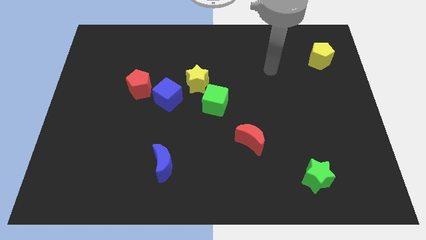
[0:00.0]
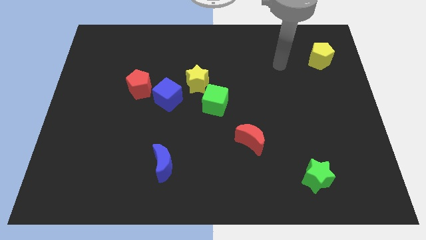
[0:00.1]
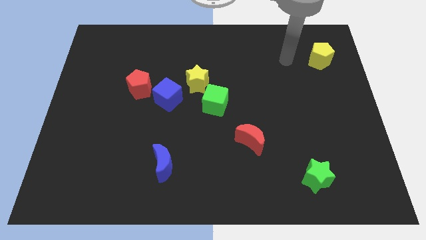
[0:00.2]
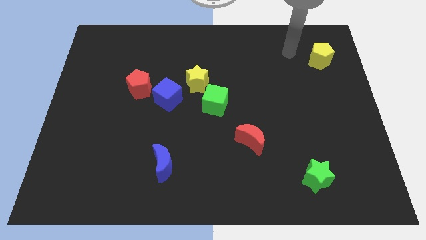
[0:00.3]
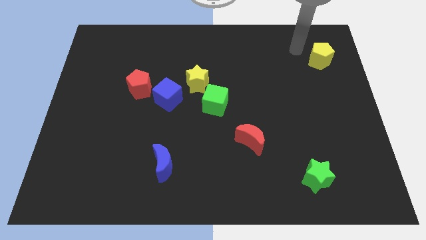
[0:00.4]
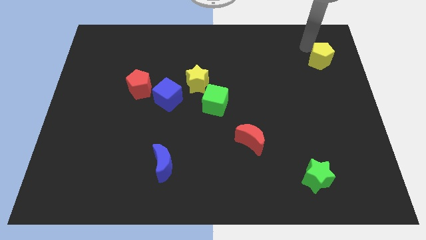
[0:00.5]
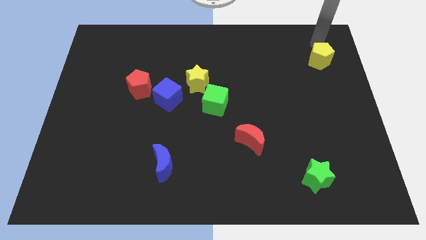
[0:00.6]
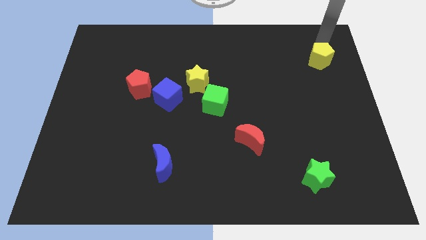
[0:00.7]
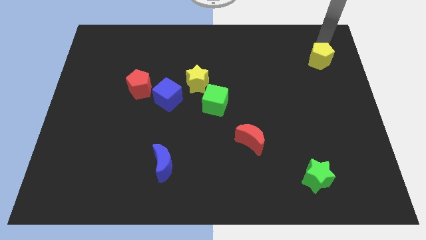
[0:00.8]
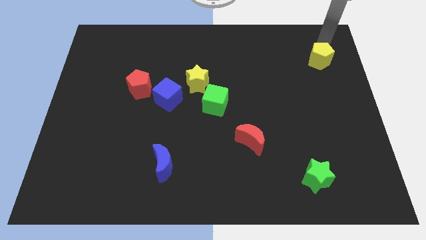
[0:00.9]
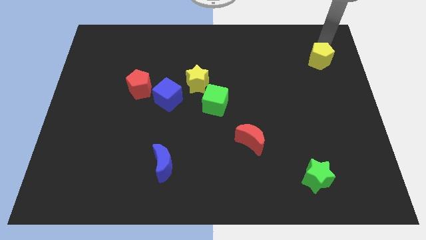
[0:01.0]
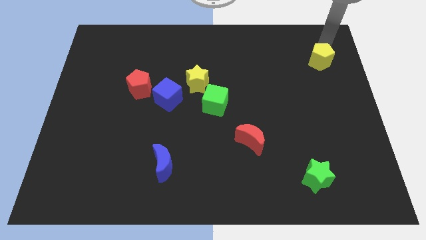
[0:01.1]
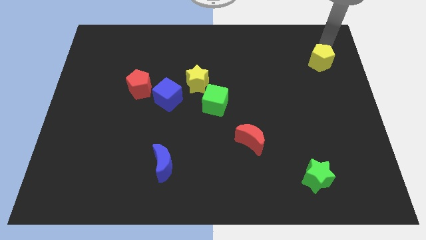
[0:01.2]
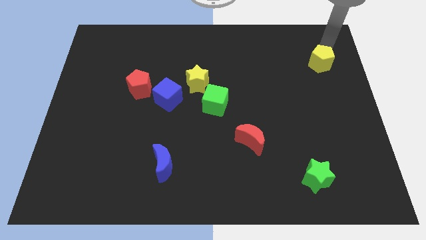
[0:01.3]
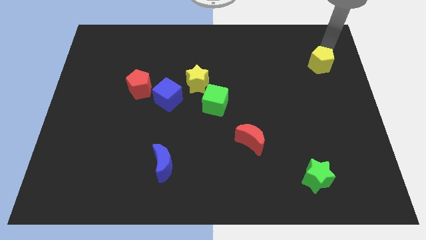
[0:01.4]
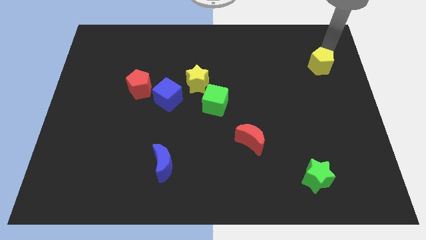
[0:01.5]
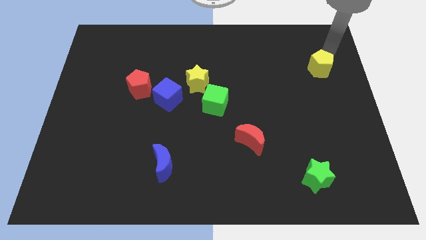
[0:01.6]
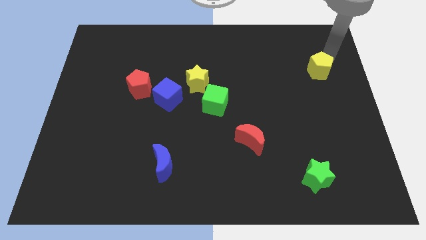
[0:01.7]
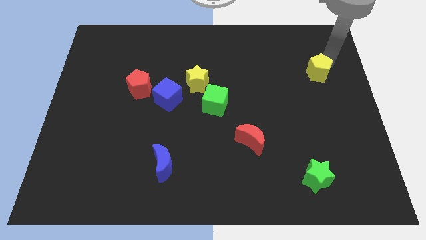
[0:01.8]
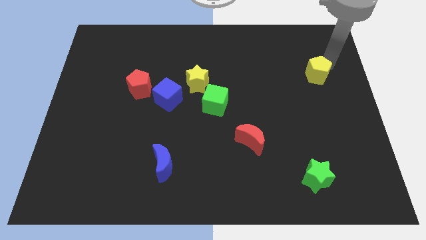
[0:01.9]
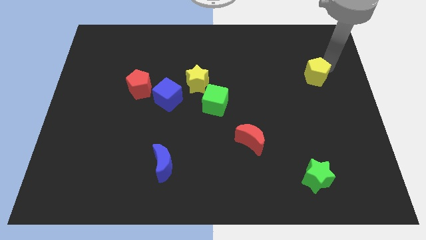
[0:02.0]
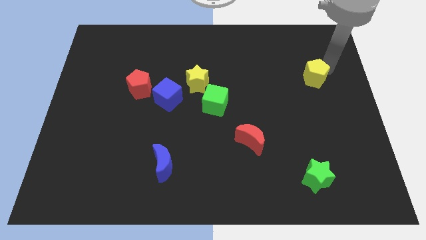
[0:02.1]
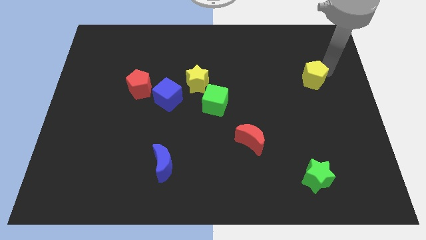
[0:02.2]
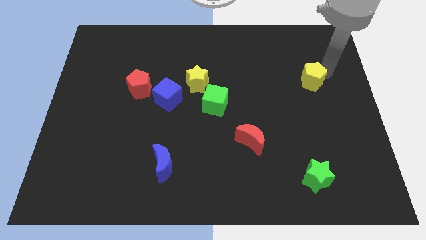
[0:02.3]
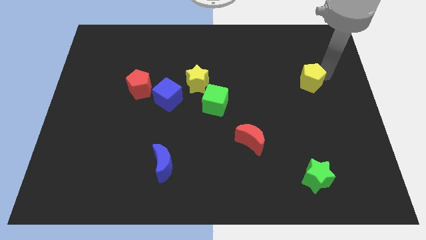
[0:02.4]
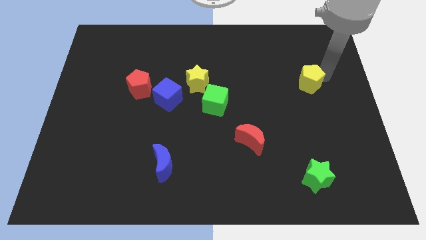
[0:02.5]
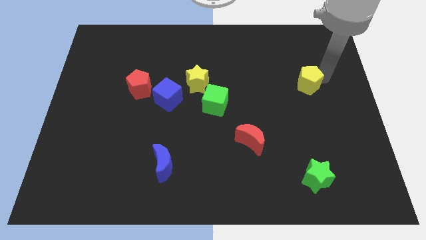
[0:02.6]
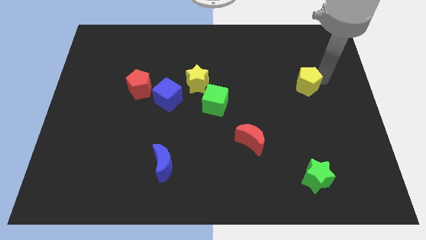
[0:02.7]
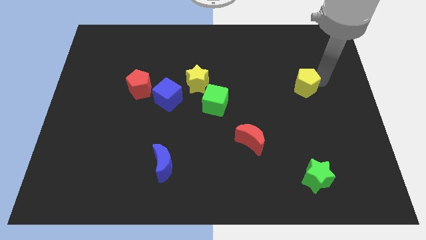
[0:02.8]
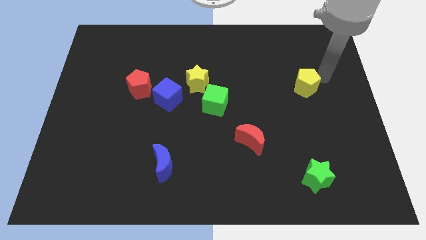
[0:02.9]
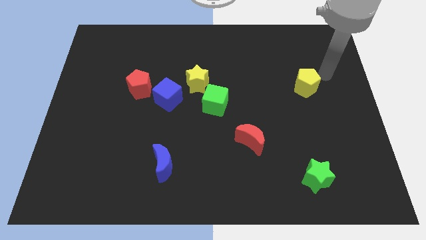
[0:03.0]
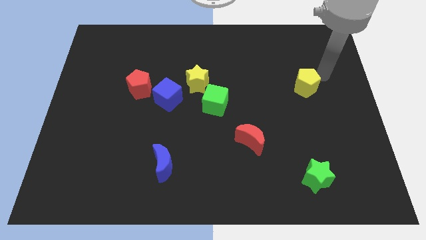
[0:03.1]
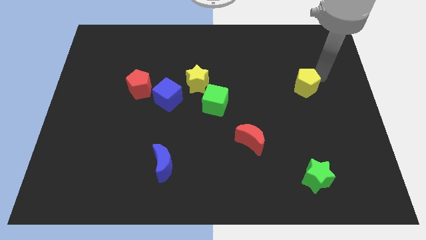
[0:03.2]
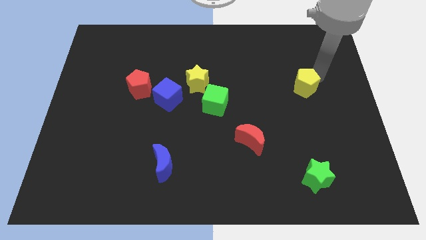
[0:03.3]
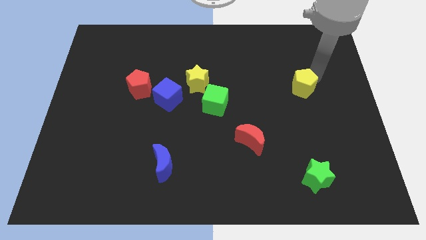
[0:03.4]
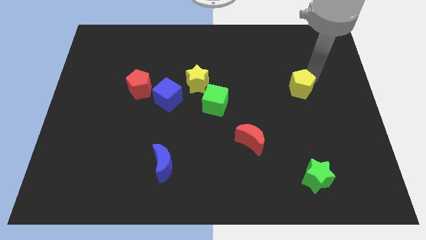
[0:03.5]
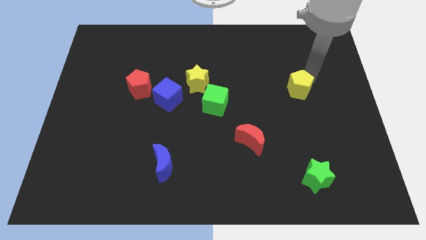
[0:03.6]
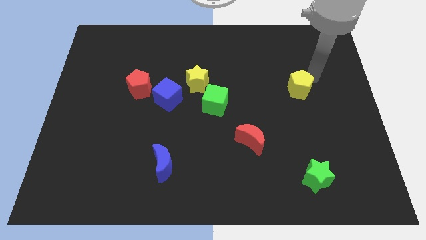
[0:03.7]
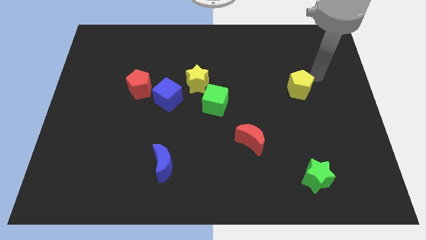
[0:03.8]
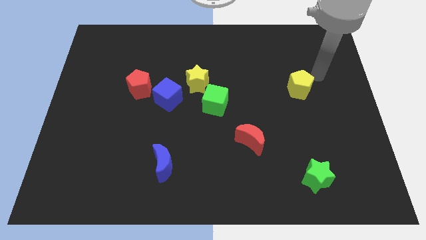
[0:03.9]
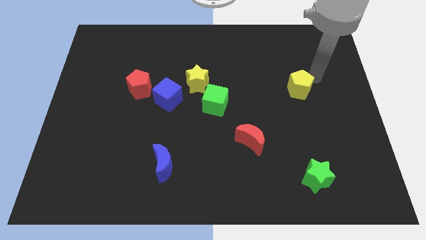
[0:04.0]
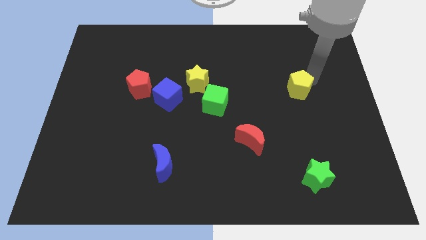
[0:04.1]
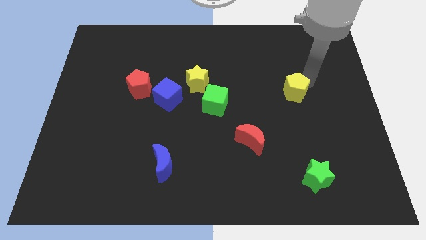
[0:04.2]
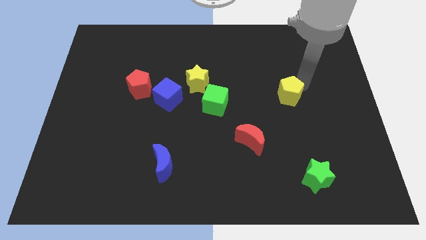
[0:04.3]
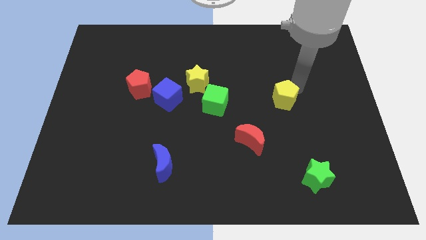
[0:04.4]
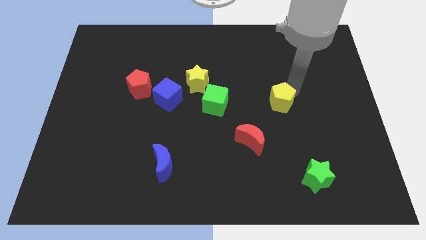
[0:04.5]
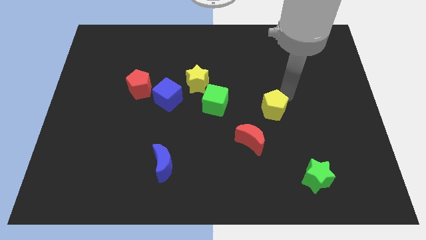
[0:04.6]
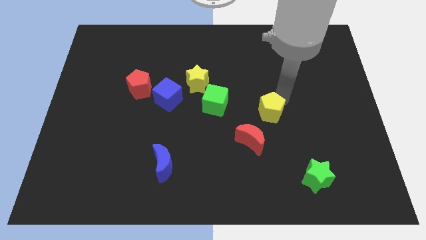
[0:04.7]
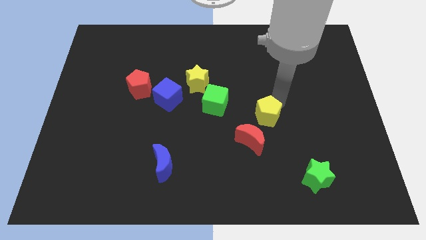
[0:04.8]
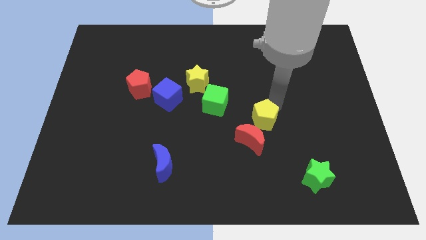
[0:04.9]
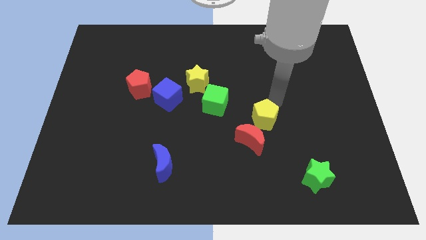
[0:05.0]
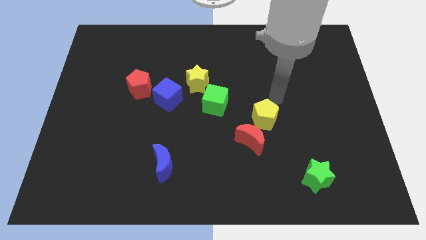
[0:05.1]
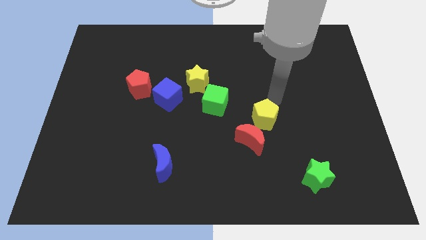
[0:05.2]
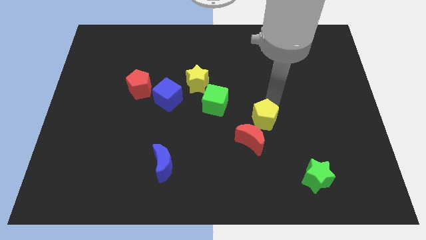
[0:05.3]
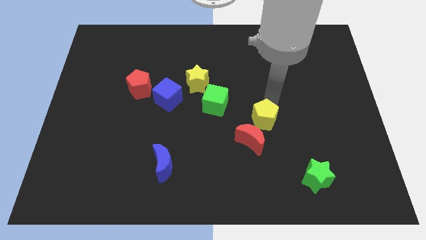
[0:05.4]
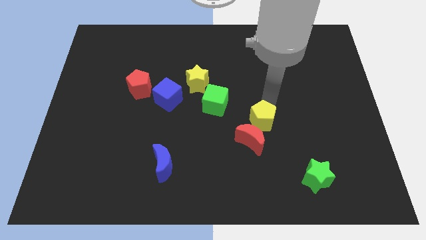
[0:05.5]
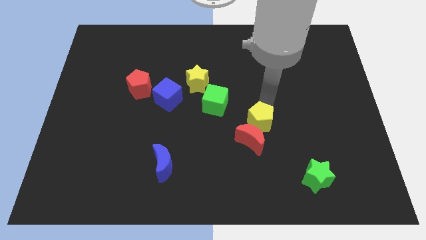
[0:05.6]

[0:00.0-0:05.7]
slide the yellow pentagon to the red moon

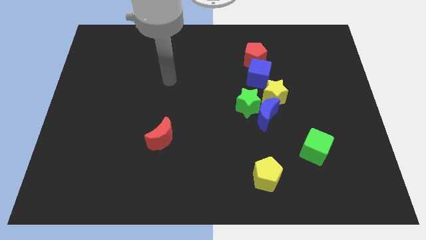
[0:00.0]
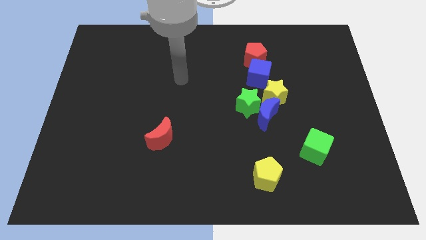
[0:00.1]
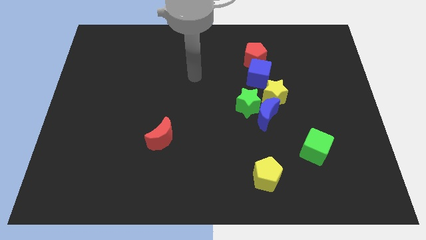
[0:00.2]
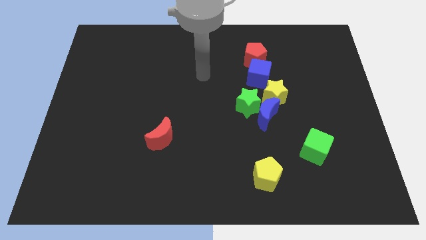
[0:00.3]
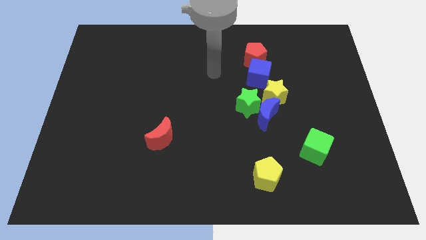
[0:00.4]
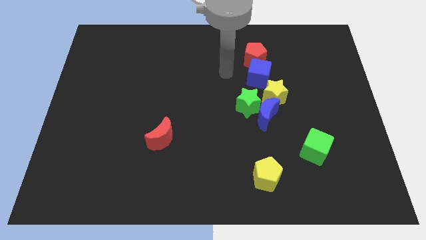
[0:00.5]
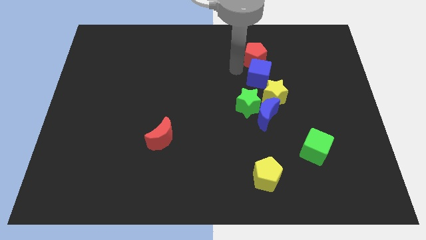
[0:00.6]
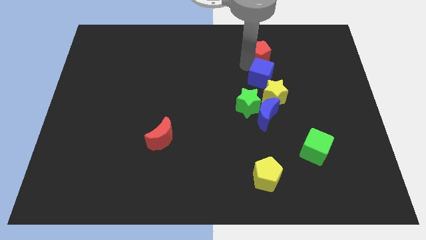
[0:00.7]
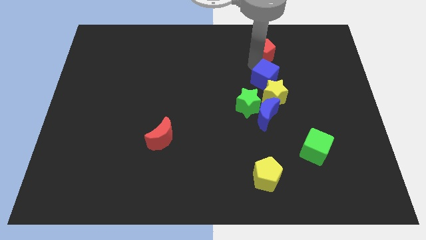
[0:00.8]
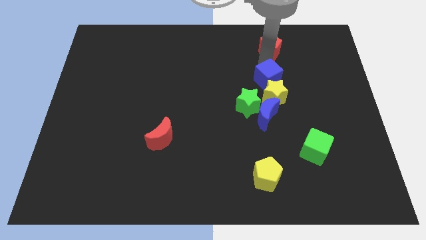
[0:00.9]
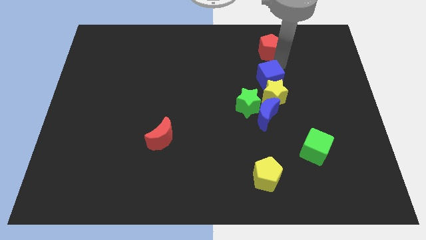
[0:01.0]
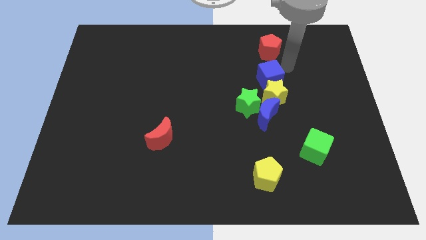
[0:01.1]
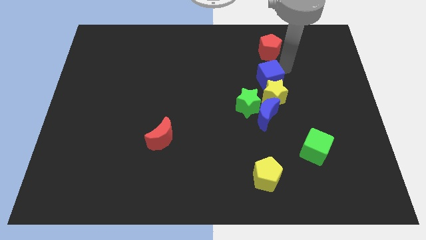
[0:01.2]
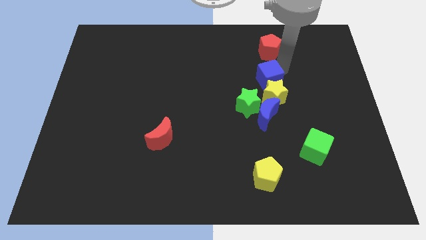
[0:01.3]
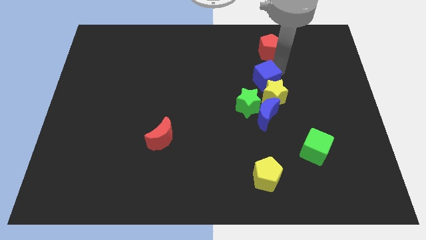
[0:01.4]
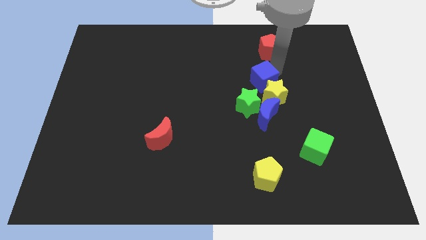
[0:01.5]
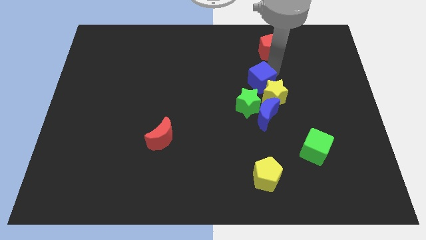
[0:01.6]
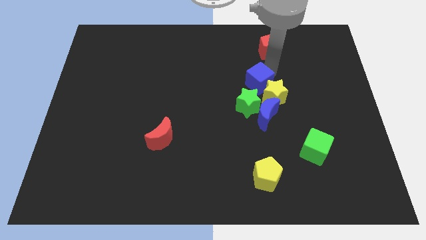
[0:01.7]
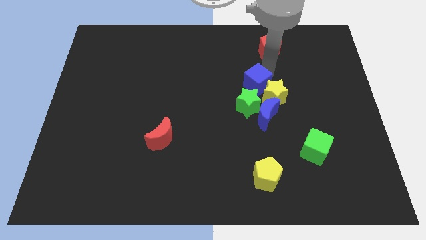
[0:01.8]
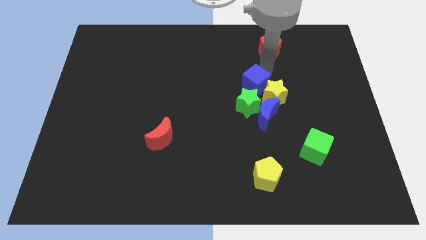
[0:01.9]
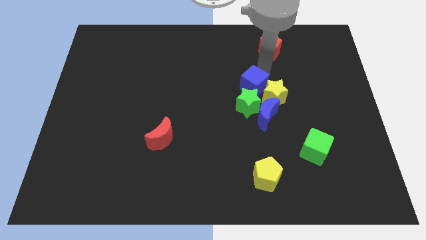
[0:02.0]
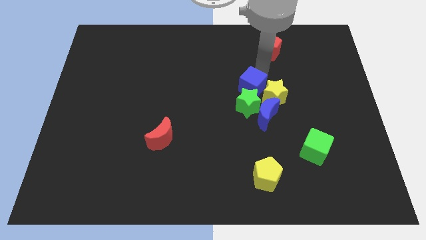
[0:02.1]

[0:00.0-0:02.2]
put the blue cube close to the green star
